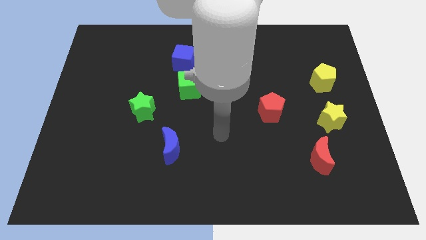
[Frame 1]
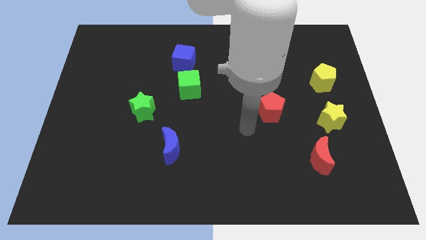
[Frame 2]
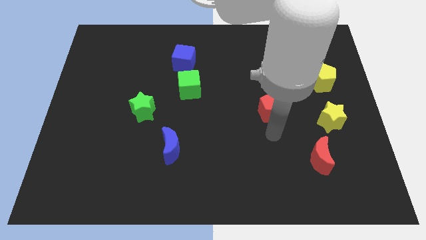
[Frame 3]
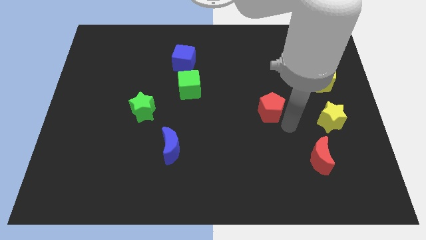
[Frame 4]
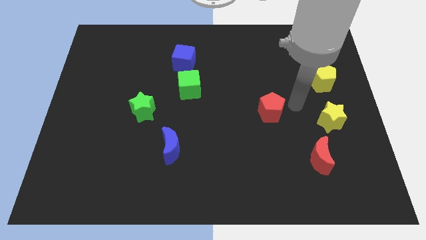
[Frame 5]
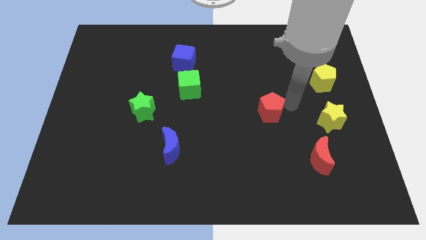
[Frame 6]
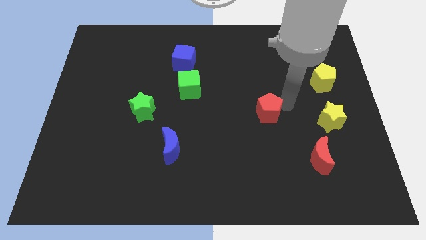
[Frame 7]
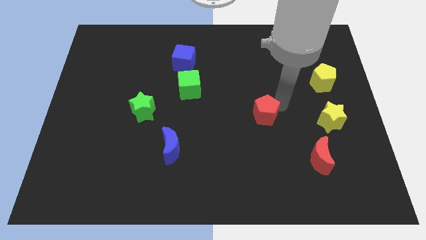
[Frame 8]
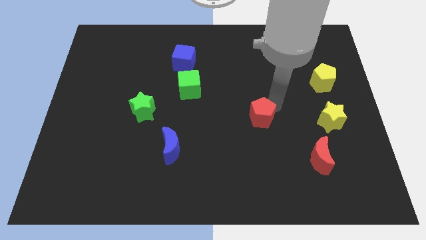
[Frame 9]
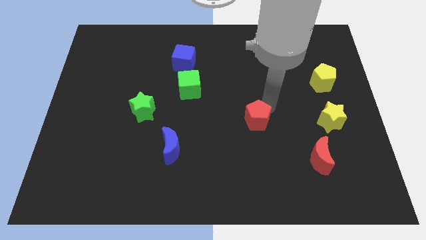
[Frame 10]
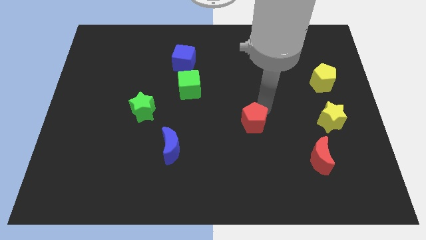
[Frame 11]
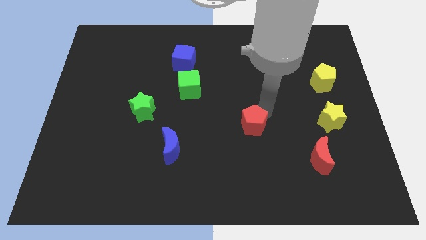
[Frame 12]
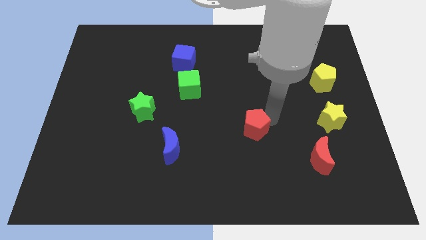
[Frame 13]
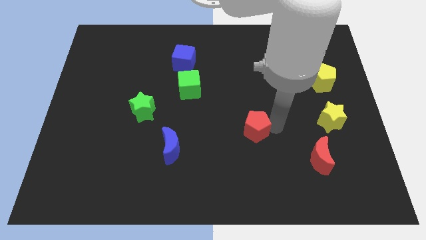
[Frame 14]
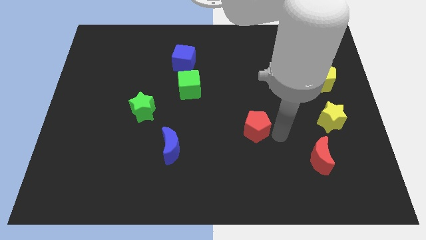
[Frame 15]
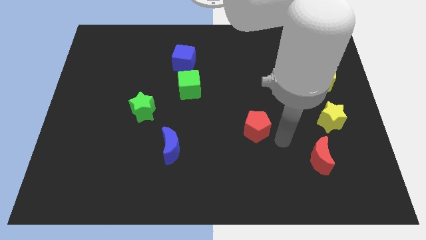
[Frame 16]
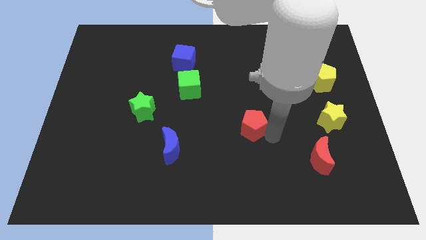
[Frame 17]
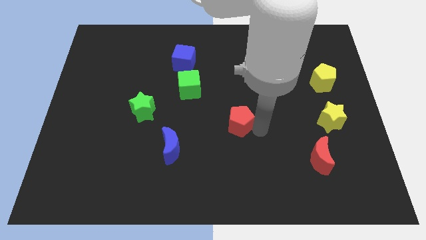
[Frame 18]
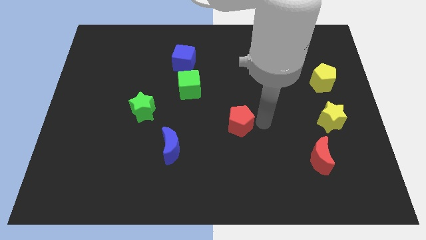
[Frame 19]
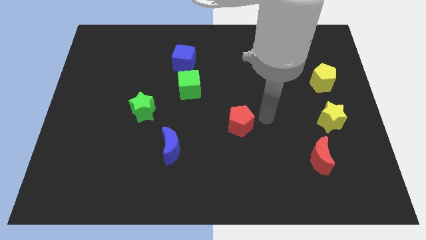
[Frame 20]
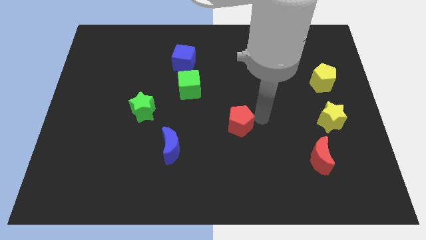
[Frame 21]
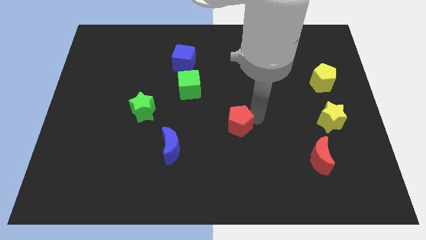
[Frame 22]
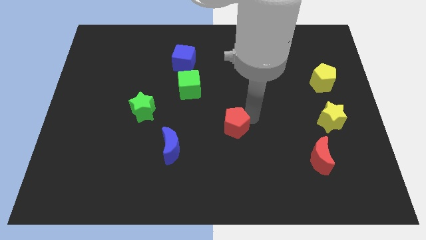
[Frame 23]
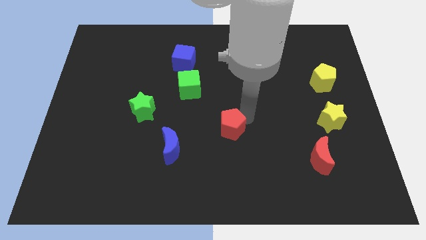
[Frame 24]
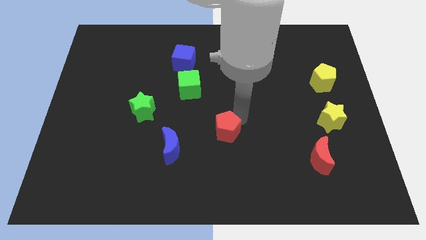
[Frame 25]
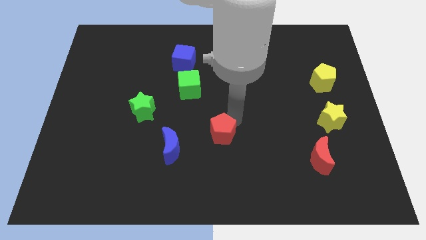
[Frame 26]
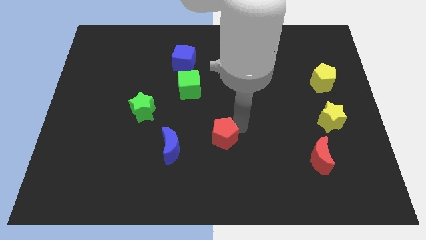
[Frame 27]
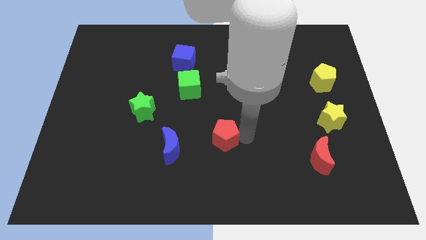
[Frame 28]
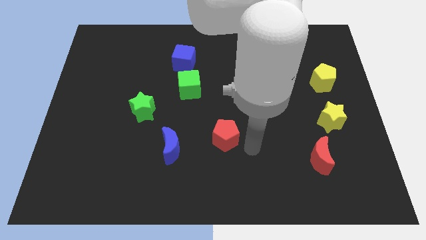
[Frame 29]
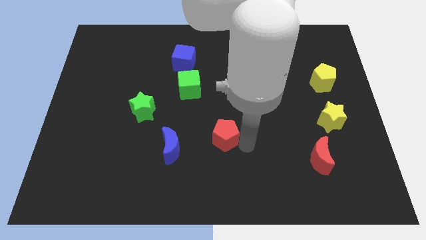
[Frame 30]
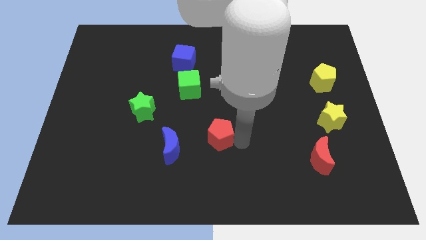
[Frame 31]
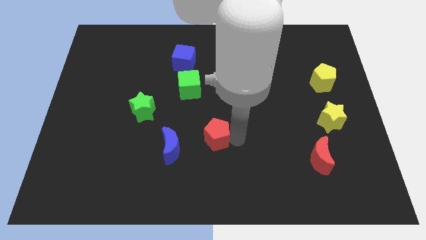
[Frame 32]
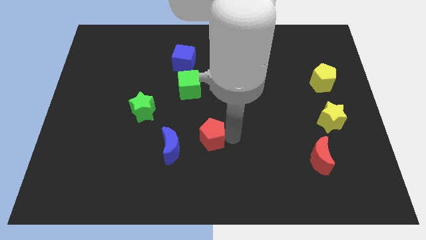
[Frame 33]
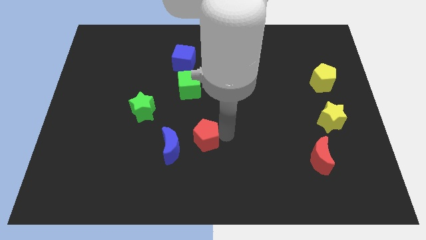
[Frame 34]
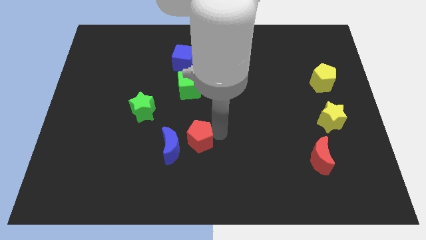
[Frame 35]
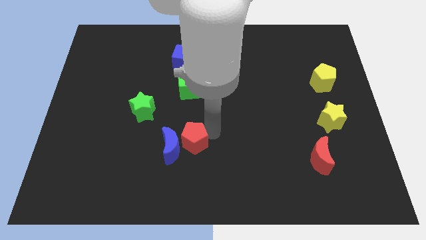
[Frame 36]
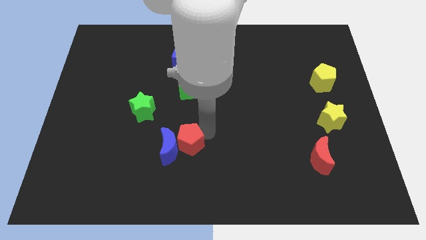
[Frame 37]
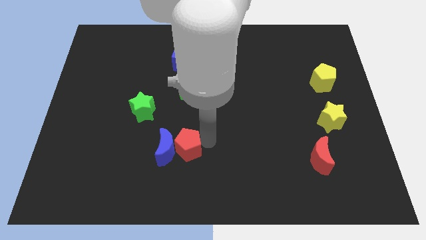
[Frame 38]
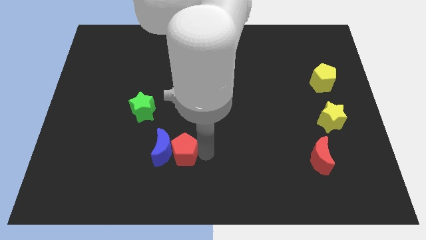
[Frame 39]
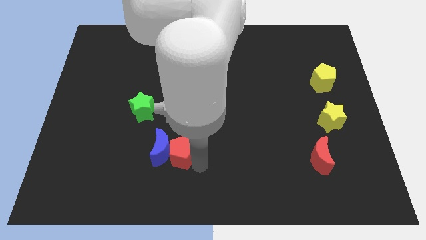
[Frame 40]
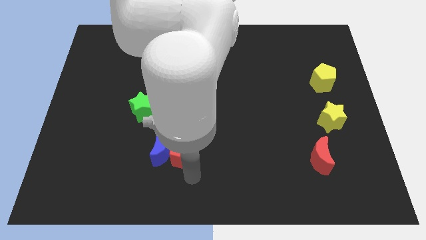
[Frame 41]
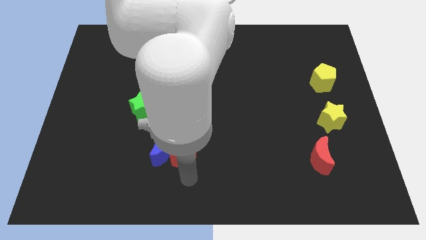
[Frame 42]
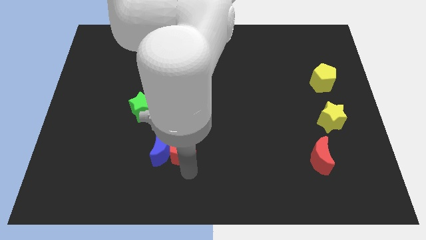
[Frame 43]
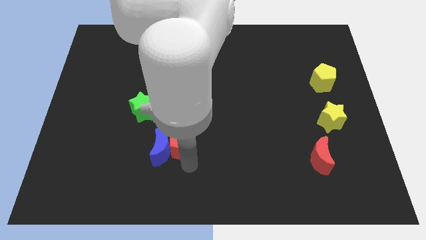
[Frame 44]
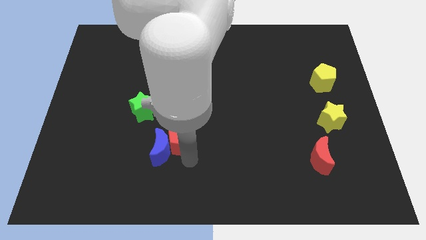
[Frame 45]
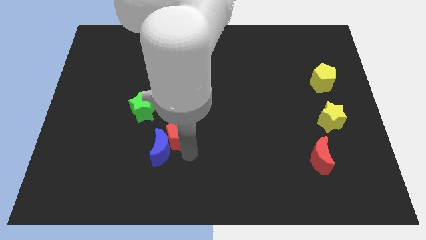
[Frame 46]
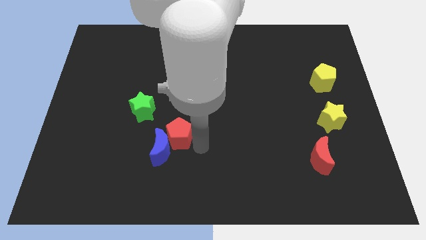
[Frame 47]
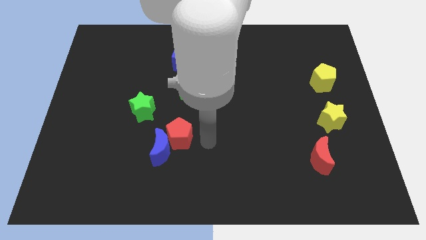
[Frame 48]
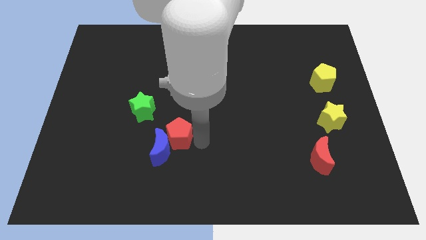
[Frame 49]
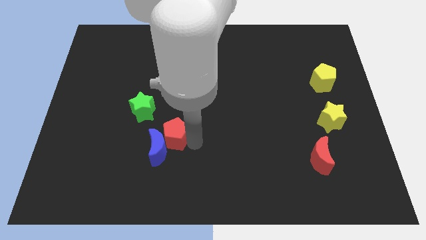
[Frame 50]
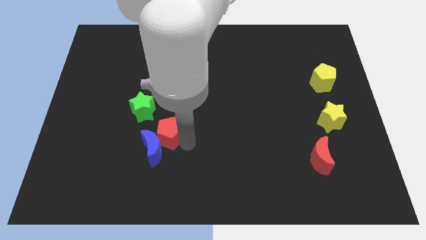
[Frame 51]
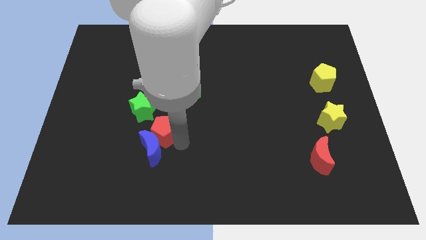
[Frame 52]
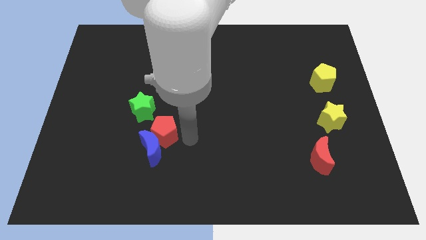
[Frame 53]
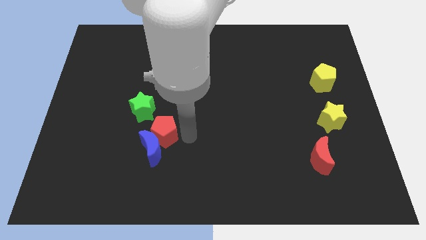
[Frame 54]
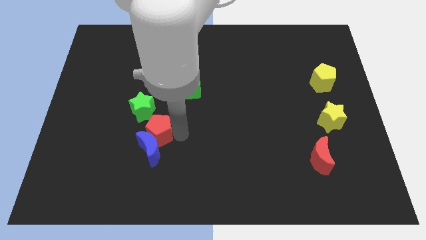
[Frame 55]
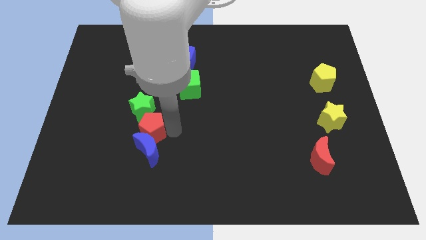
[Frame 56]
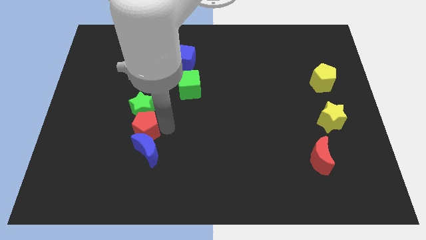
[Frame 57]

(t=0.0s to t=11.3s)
put the red pentagon to the bottom left side of the green star

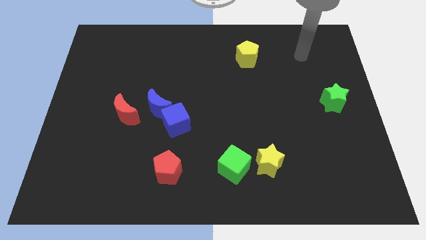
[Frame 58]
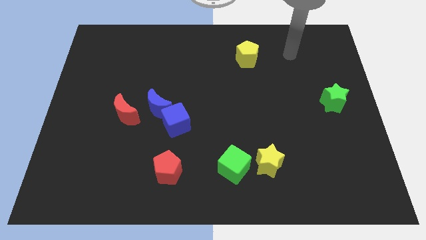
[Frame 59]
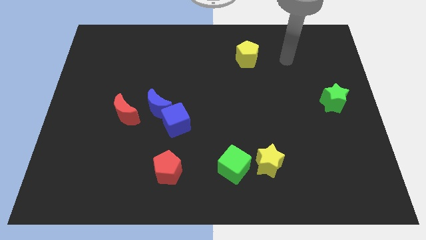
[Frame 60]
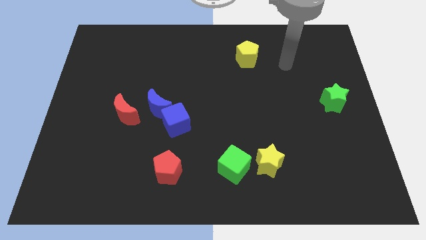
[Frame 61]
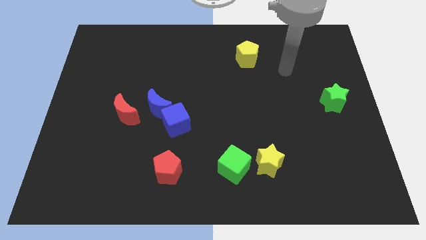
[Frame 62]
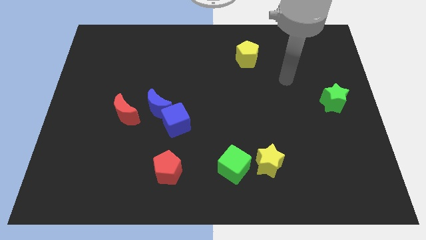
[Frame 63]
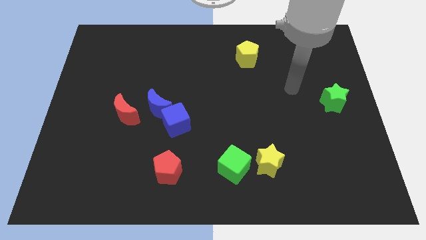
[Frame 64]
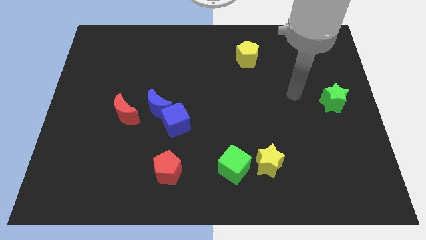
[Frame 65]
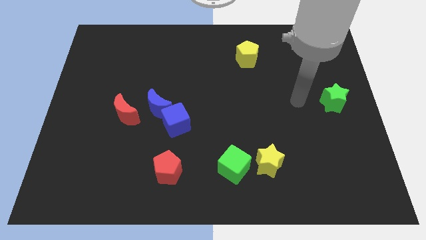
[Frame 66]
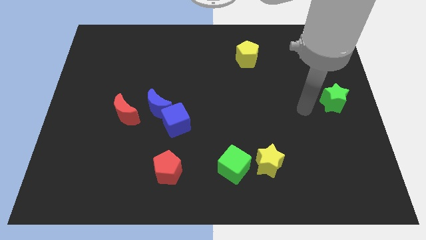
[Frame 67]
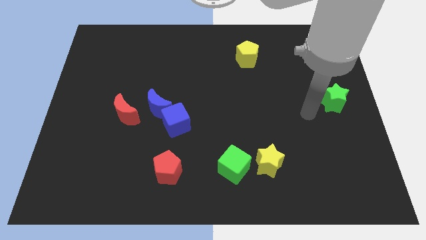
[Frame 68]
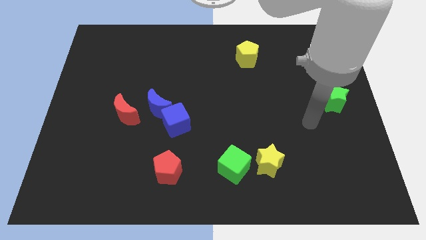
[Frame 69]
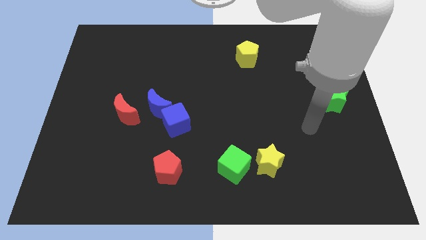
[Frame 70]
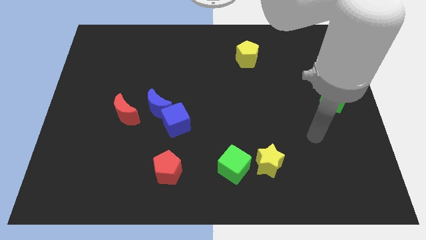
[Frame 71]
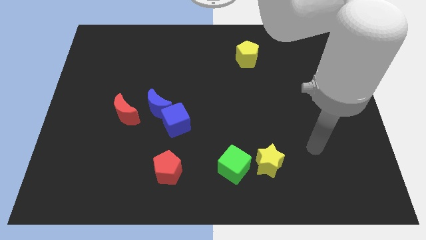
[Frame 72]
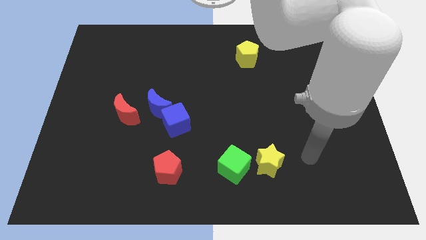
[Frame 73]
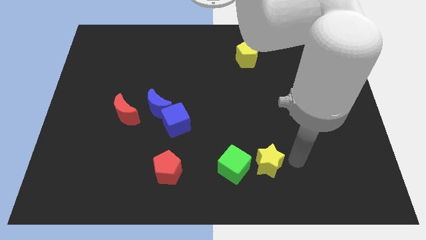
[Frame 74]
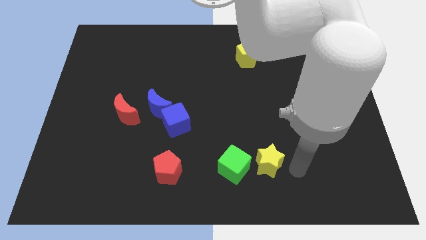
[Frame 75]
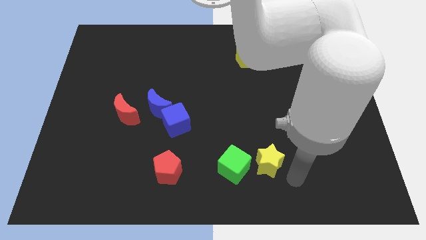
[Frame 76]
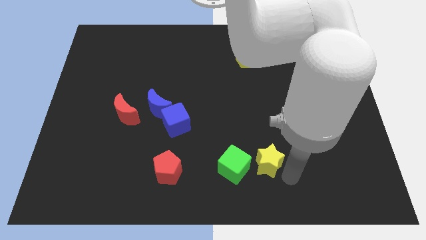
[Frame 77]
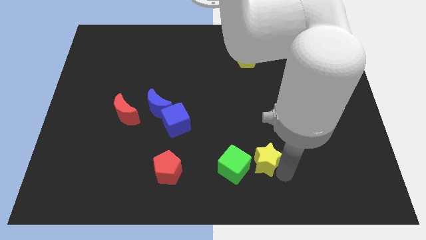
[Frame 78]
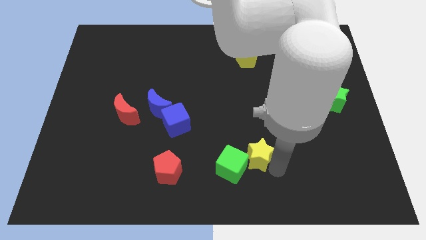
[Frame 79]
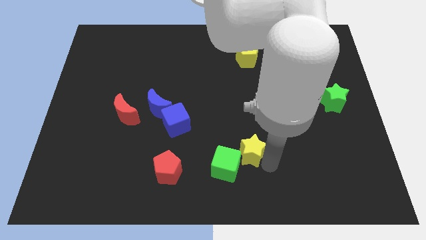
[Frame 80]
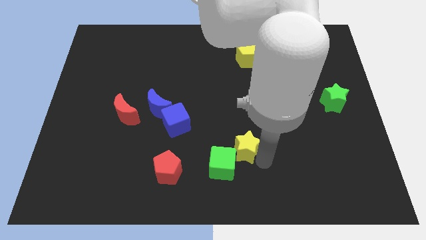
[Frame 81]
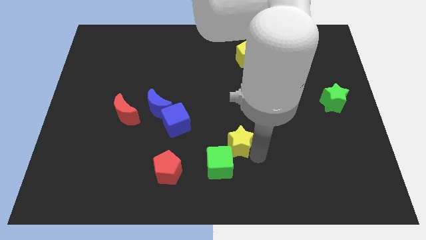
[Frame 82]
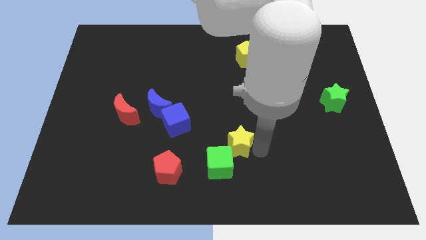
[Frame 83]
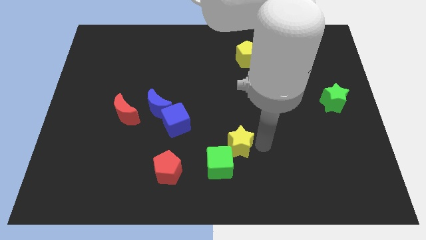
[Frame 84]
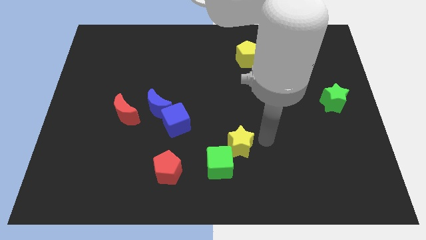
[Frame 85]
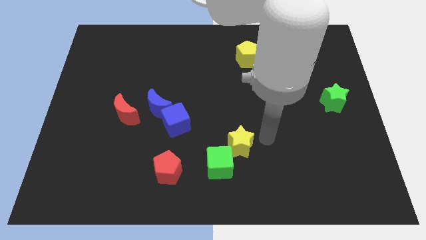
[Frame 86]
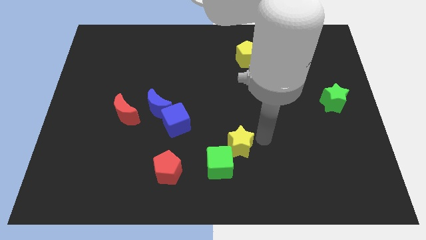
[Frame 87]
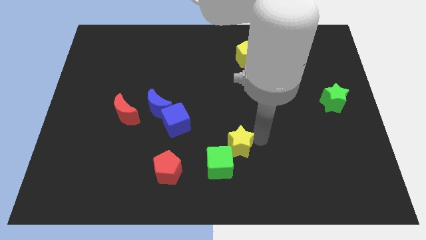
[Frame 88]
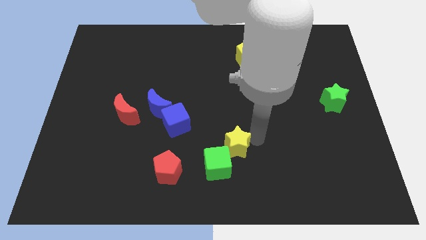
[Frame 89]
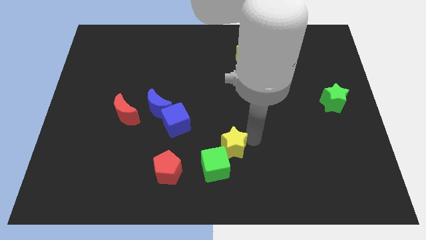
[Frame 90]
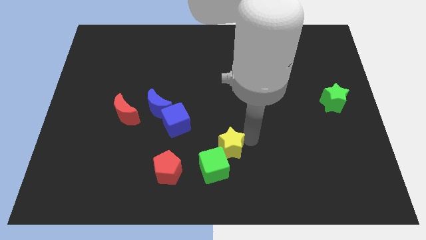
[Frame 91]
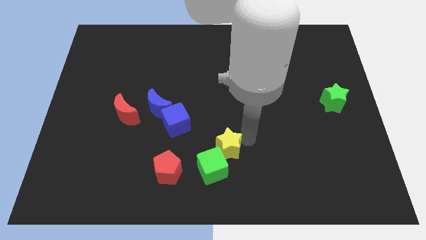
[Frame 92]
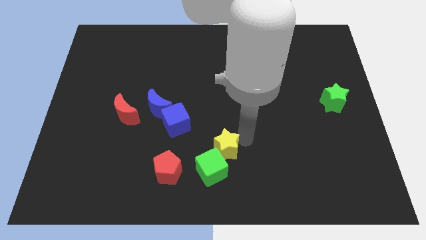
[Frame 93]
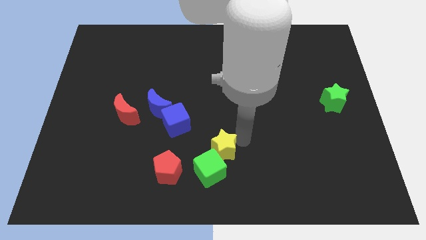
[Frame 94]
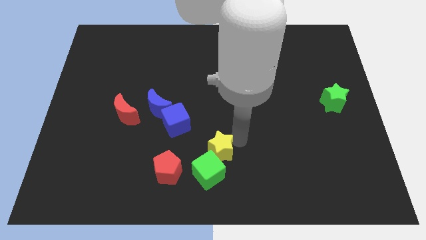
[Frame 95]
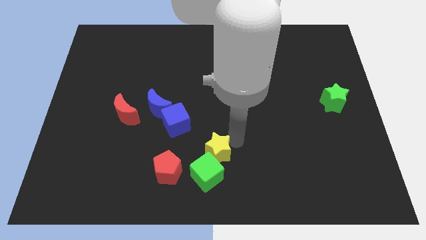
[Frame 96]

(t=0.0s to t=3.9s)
push the yellow star diagonally up and to the right of the red pentagon
